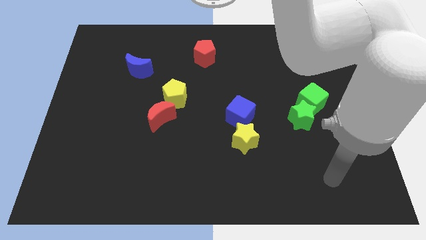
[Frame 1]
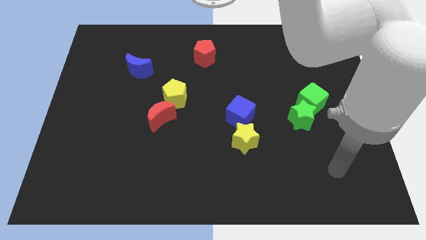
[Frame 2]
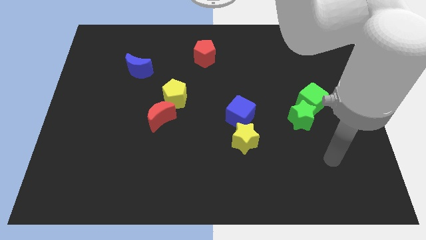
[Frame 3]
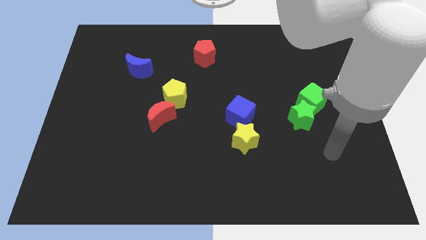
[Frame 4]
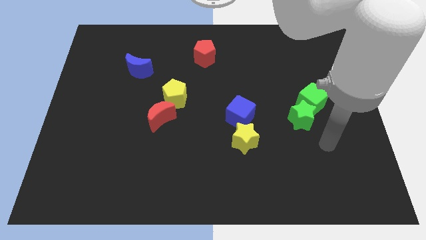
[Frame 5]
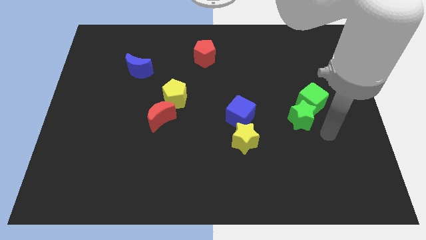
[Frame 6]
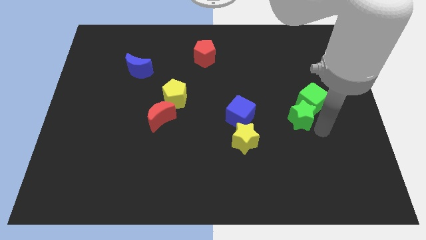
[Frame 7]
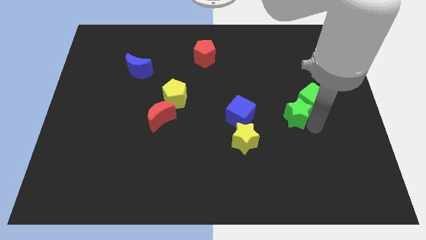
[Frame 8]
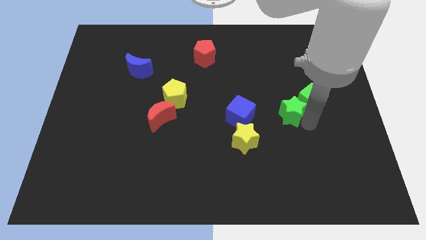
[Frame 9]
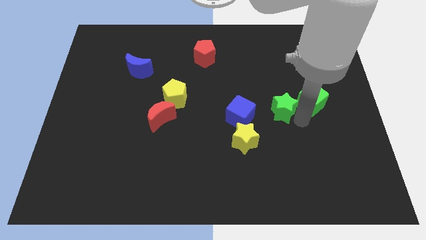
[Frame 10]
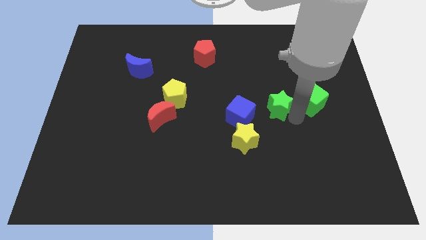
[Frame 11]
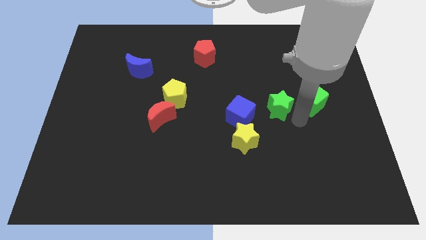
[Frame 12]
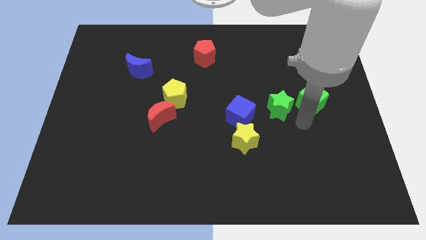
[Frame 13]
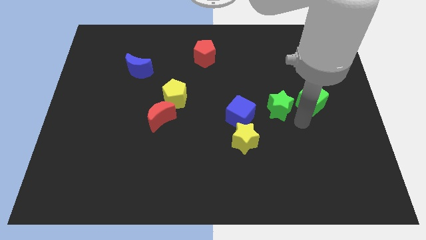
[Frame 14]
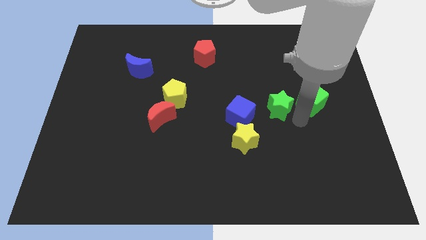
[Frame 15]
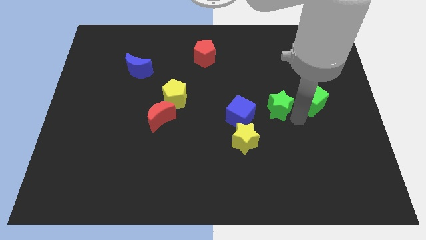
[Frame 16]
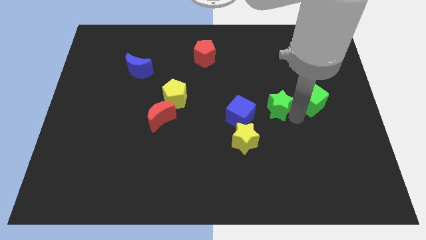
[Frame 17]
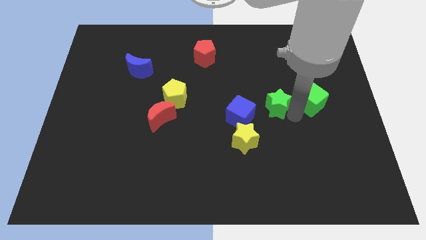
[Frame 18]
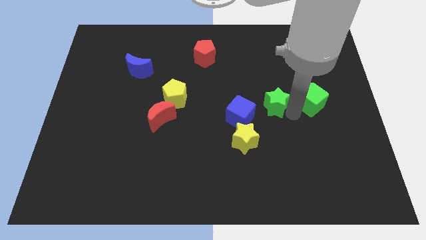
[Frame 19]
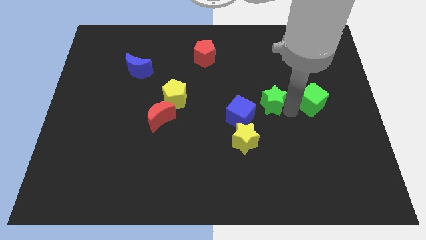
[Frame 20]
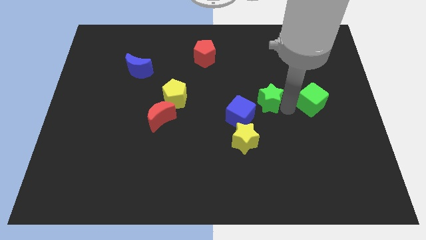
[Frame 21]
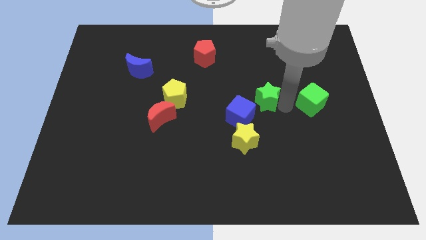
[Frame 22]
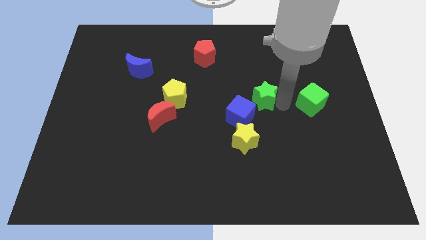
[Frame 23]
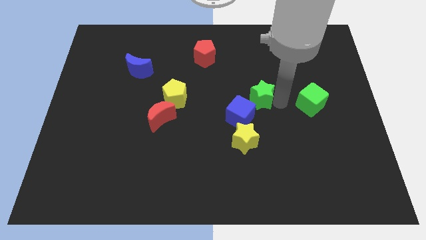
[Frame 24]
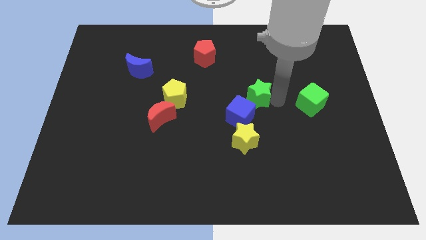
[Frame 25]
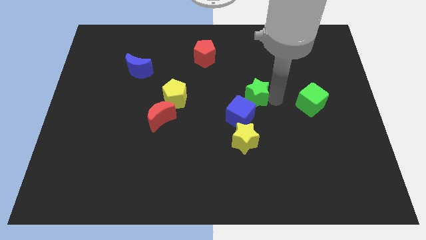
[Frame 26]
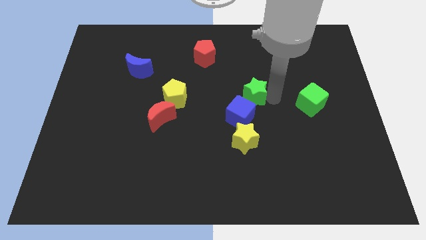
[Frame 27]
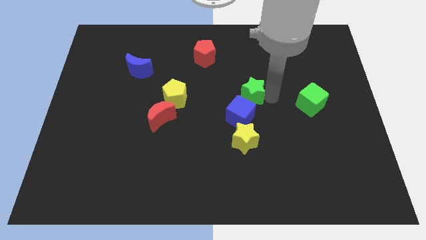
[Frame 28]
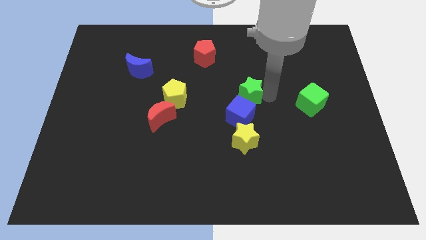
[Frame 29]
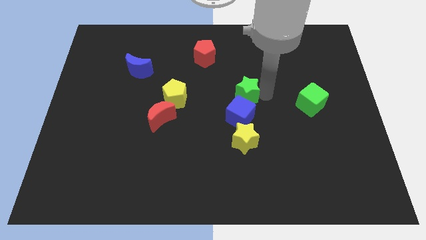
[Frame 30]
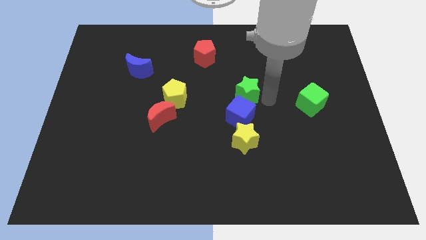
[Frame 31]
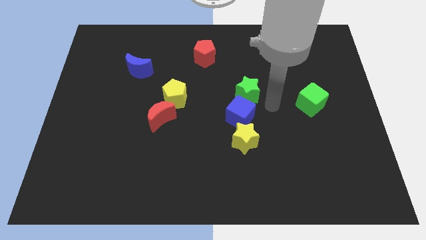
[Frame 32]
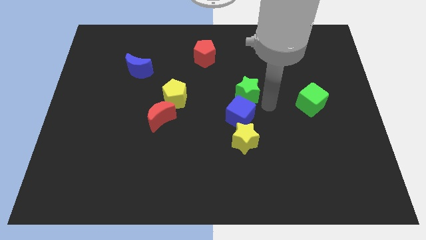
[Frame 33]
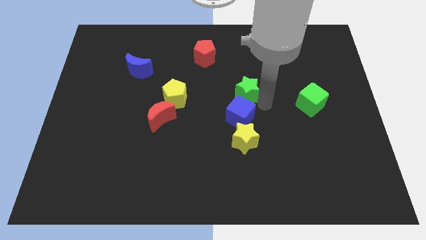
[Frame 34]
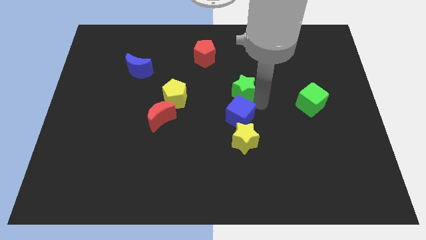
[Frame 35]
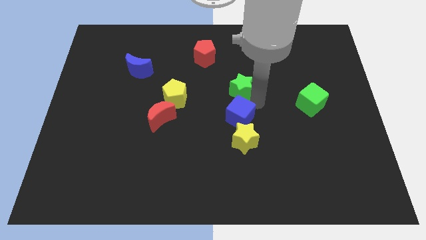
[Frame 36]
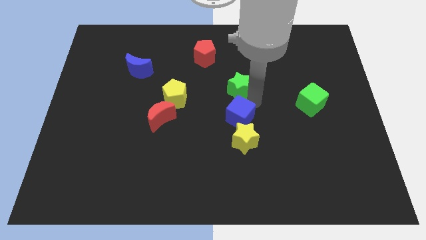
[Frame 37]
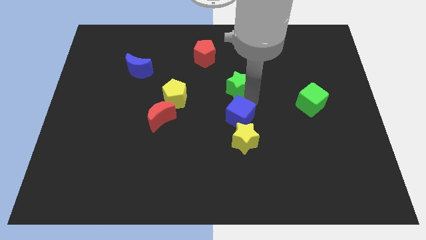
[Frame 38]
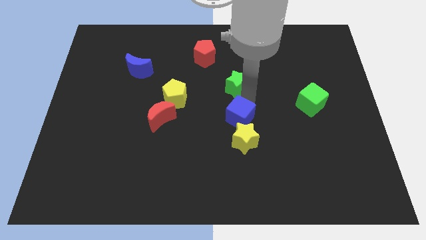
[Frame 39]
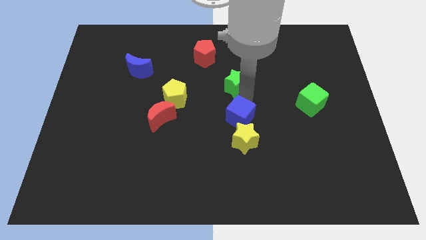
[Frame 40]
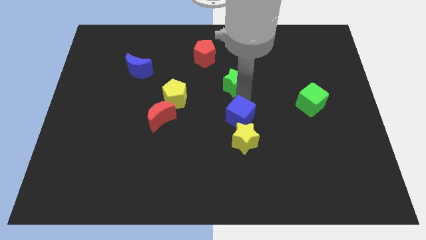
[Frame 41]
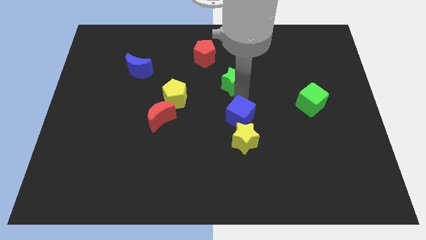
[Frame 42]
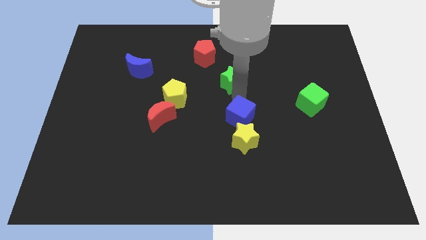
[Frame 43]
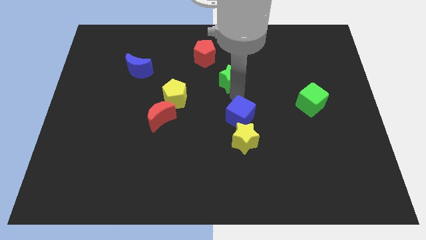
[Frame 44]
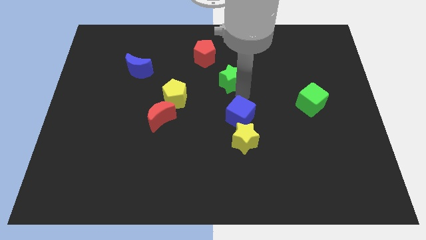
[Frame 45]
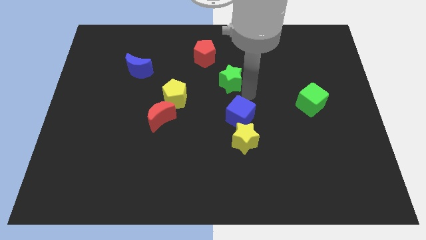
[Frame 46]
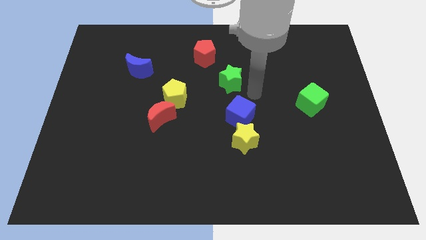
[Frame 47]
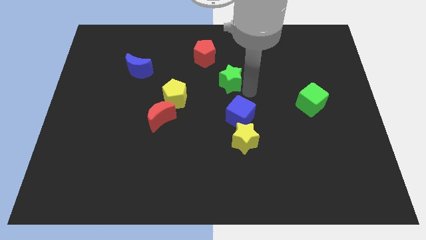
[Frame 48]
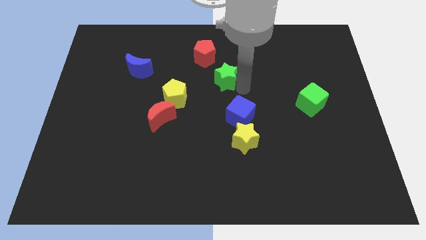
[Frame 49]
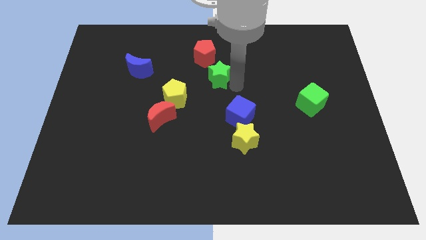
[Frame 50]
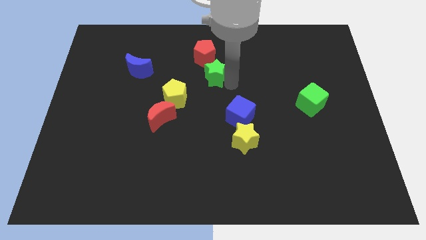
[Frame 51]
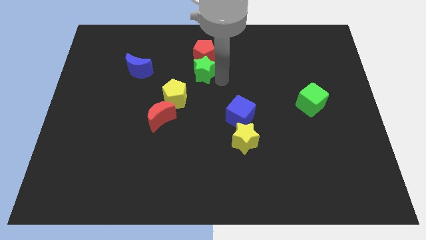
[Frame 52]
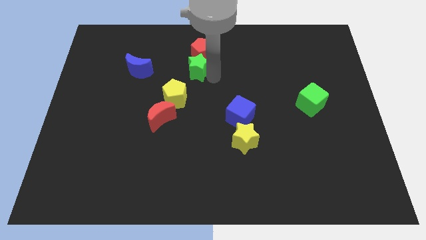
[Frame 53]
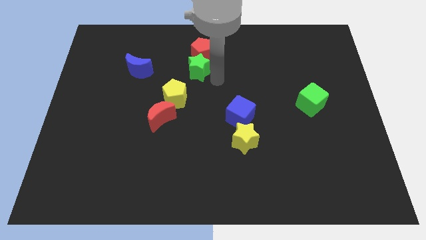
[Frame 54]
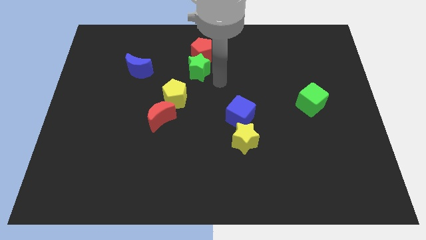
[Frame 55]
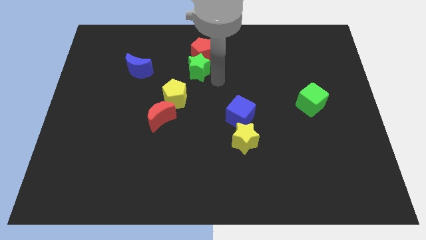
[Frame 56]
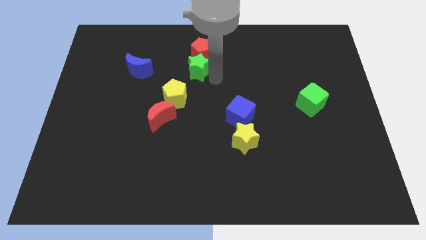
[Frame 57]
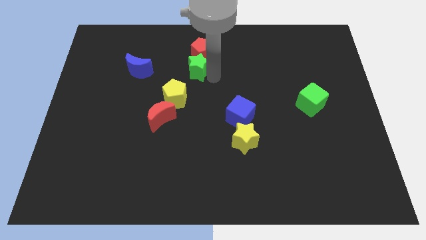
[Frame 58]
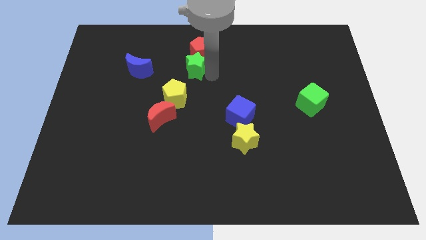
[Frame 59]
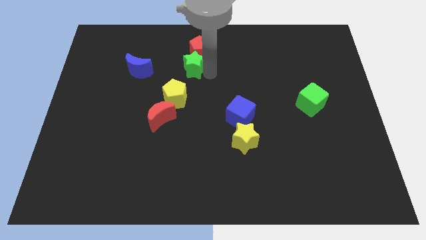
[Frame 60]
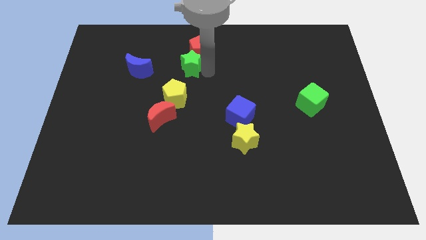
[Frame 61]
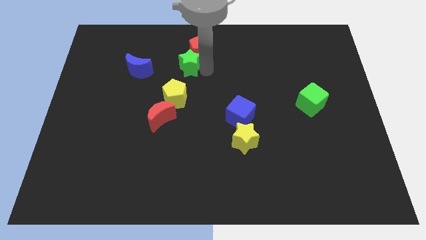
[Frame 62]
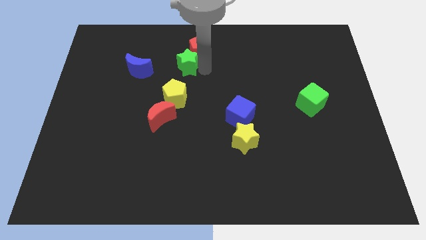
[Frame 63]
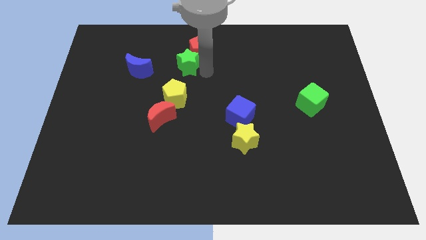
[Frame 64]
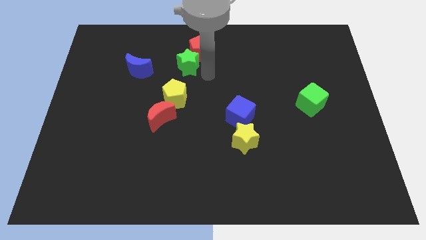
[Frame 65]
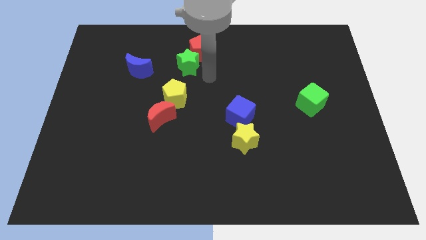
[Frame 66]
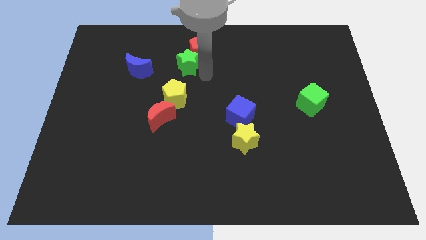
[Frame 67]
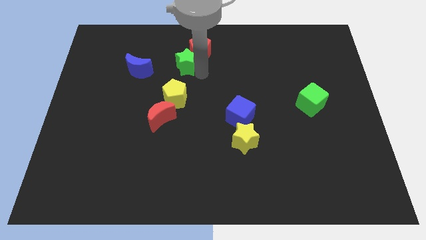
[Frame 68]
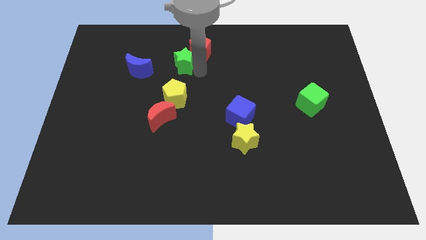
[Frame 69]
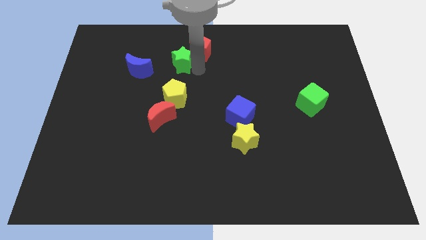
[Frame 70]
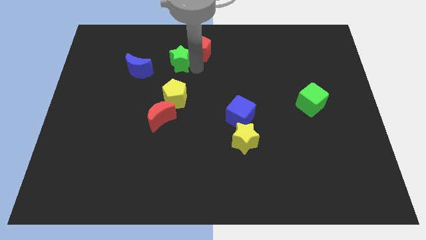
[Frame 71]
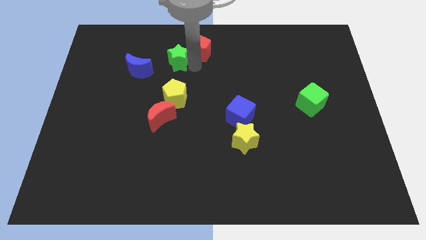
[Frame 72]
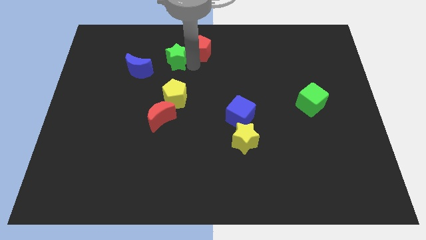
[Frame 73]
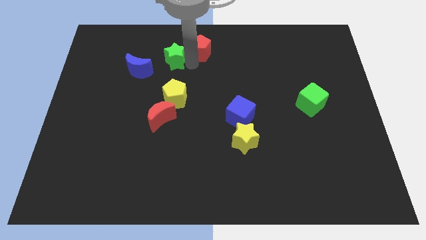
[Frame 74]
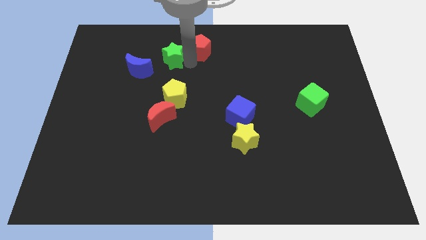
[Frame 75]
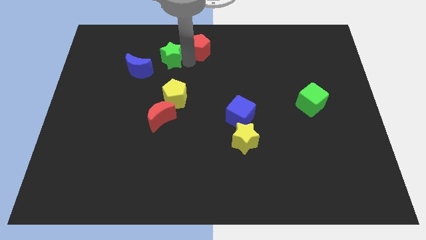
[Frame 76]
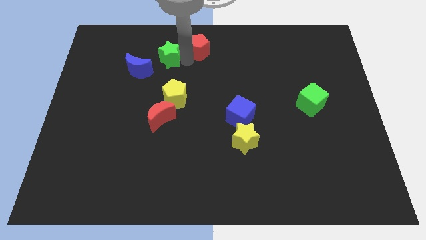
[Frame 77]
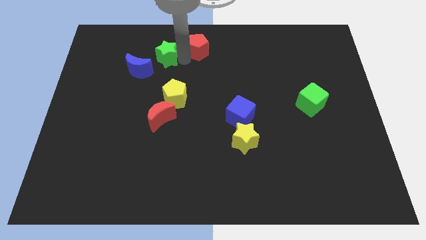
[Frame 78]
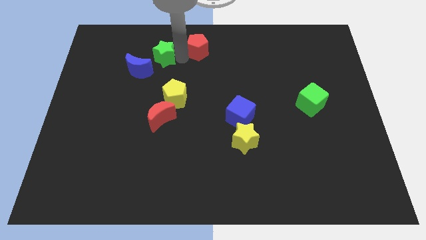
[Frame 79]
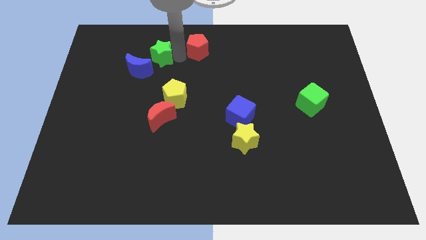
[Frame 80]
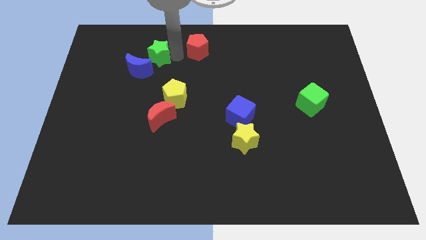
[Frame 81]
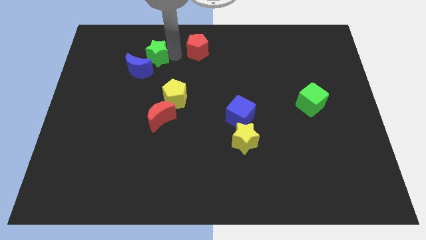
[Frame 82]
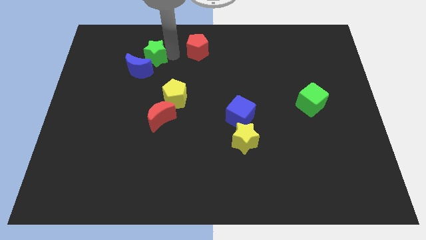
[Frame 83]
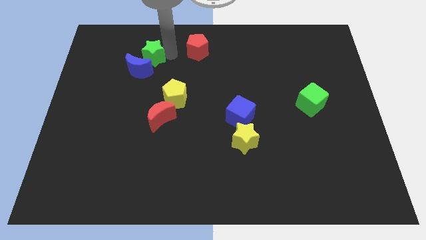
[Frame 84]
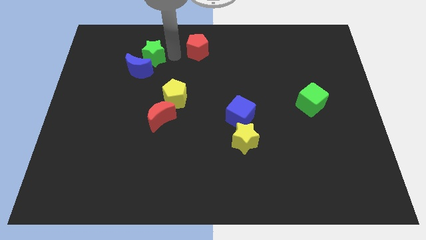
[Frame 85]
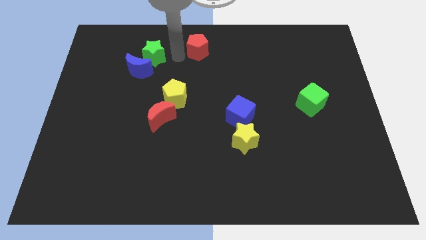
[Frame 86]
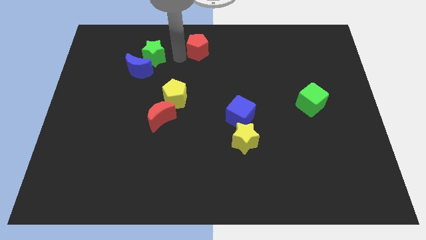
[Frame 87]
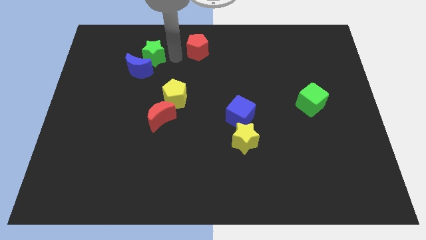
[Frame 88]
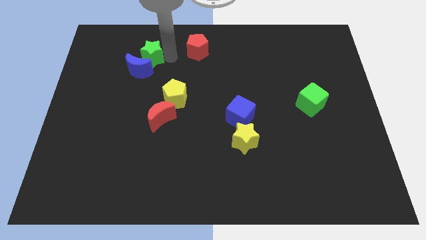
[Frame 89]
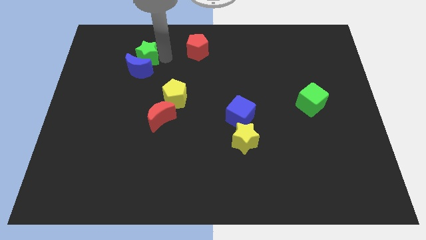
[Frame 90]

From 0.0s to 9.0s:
move the green star to the top left side of the blue moon
